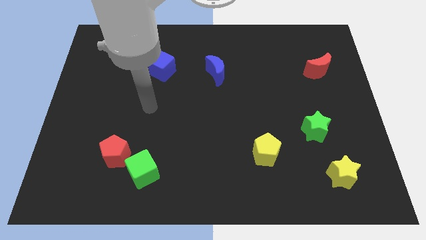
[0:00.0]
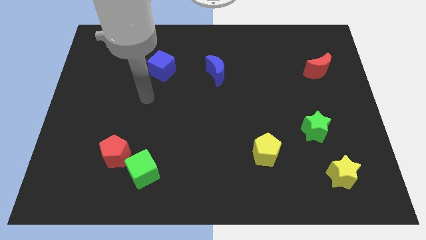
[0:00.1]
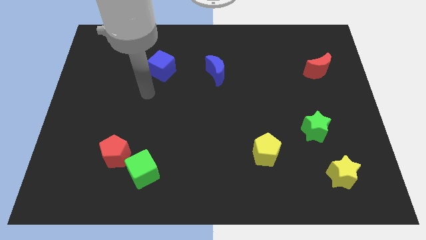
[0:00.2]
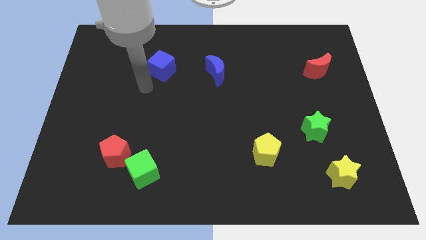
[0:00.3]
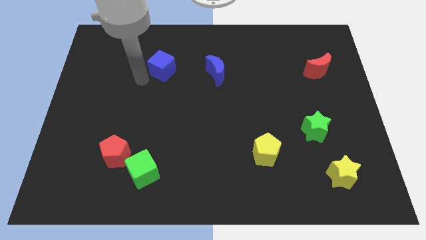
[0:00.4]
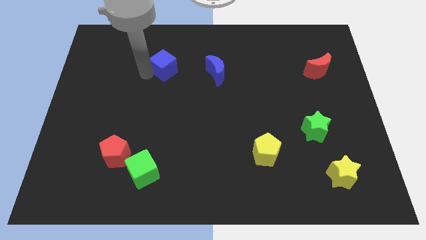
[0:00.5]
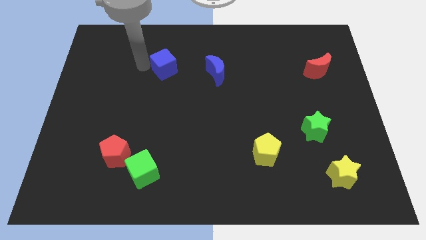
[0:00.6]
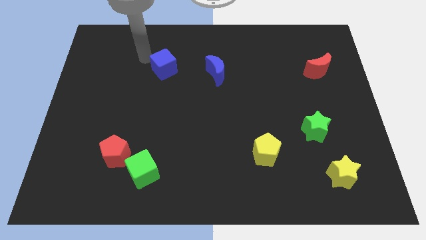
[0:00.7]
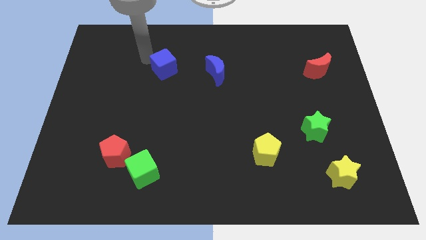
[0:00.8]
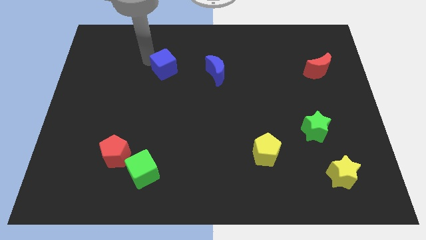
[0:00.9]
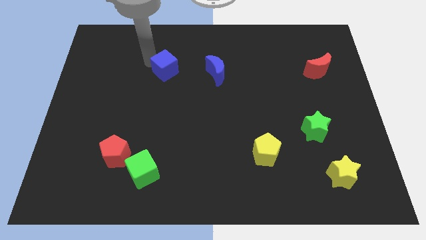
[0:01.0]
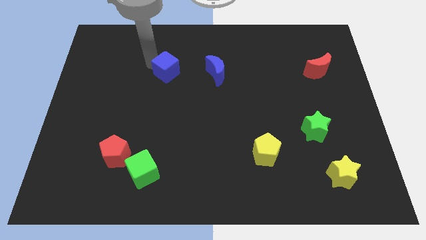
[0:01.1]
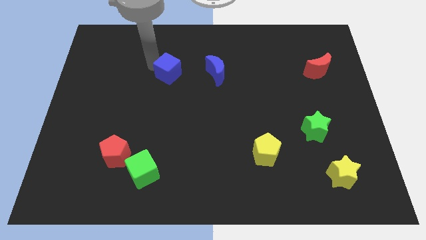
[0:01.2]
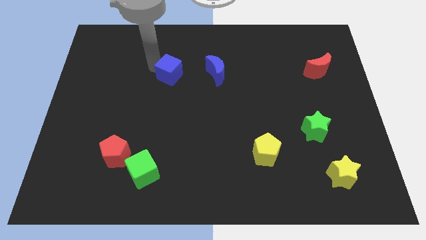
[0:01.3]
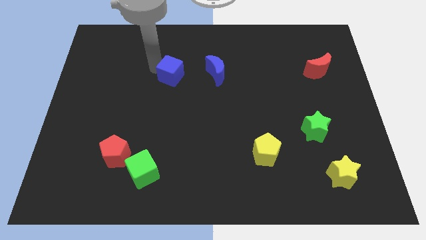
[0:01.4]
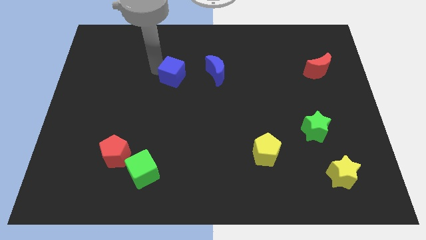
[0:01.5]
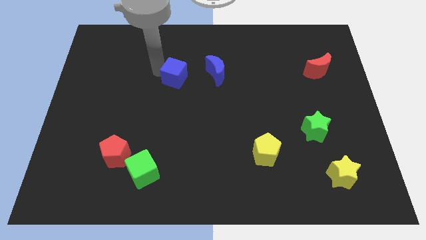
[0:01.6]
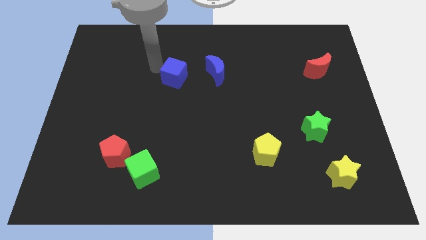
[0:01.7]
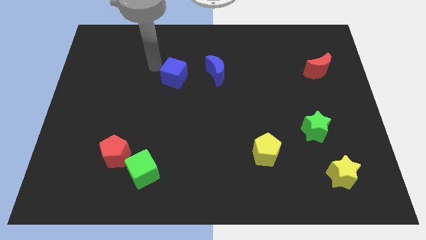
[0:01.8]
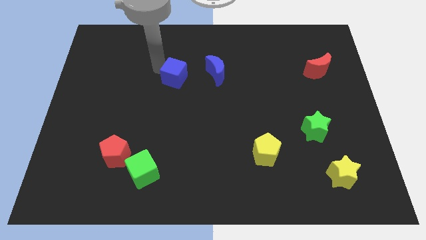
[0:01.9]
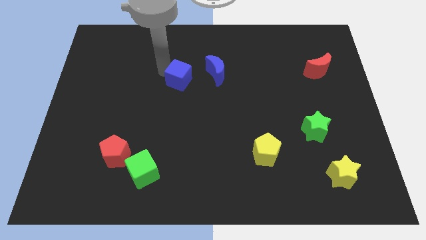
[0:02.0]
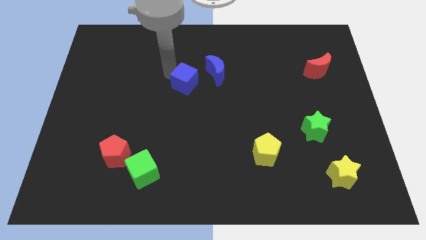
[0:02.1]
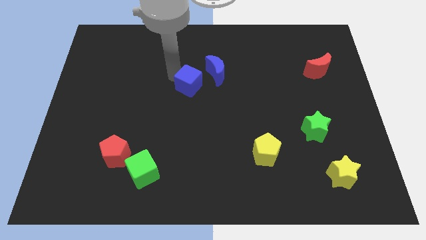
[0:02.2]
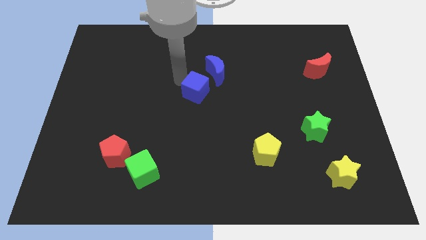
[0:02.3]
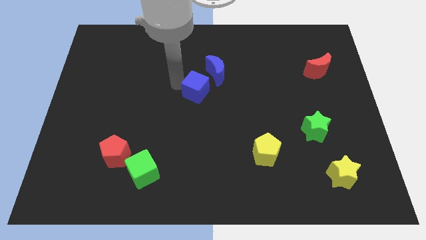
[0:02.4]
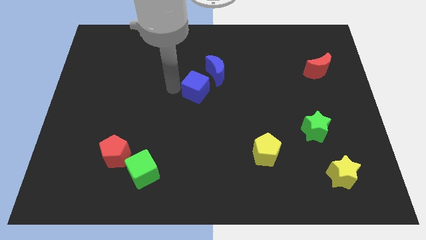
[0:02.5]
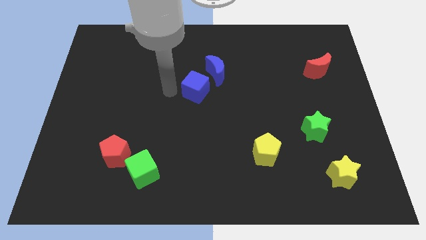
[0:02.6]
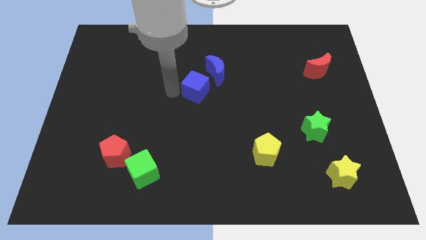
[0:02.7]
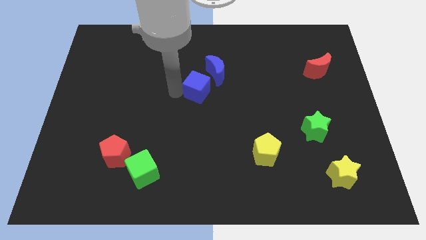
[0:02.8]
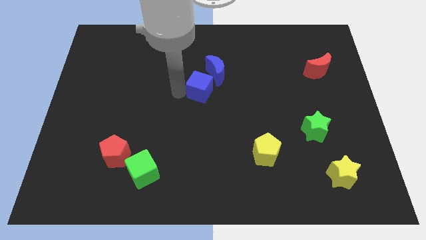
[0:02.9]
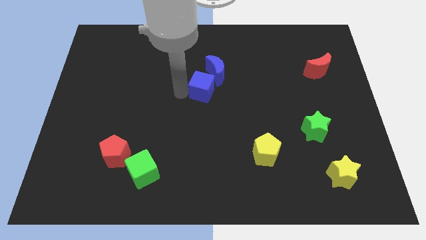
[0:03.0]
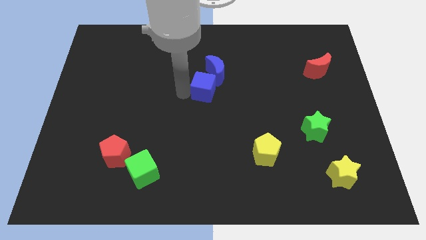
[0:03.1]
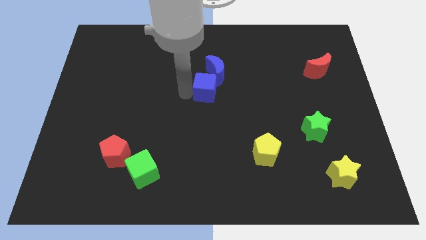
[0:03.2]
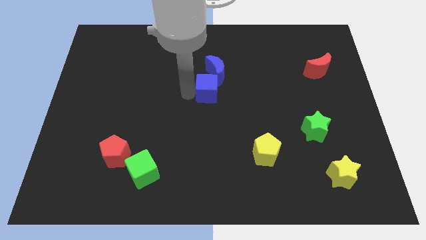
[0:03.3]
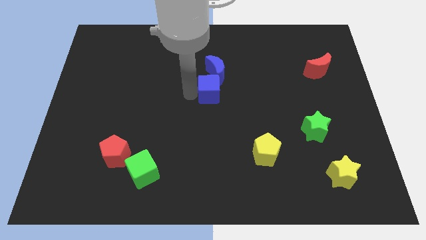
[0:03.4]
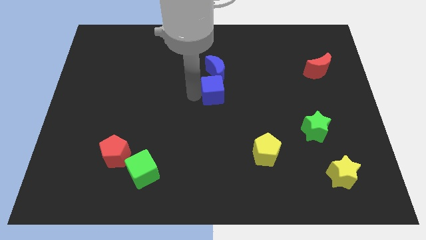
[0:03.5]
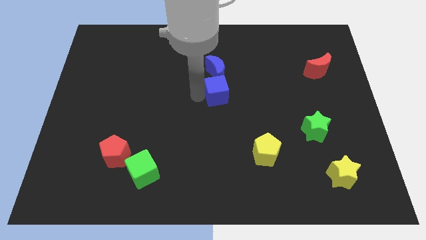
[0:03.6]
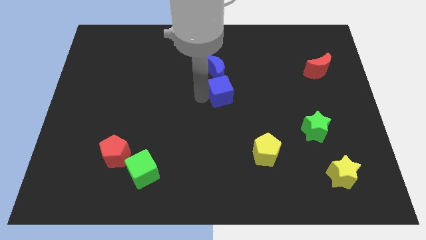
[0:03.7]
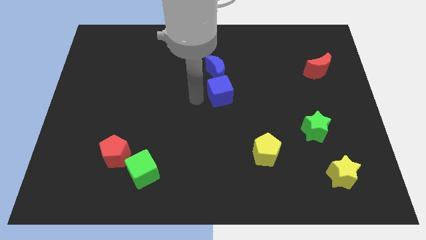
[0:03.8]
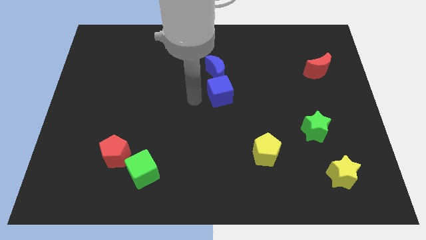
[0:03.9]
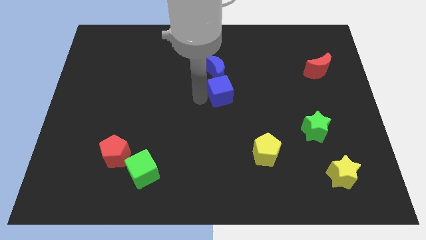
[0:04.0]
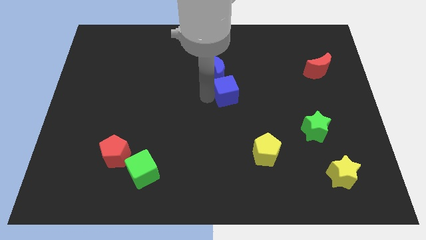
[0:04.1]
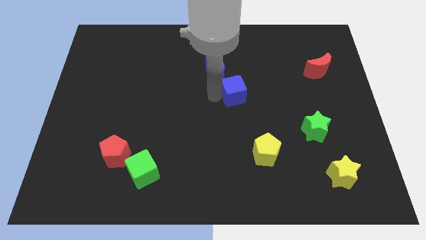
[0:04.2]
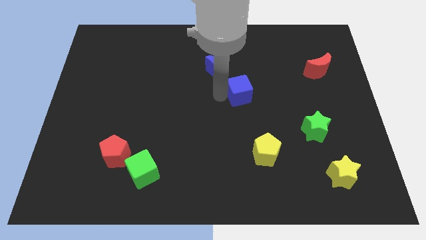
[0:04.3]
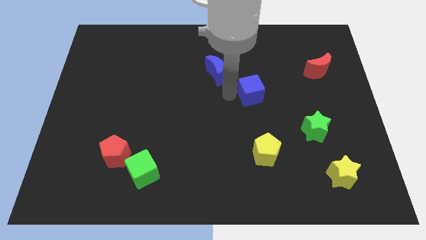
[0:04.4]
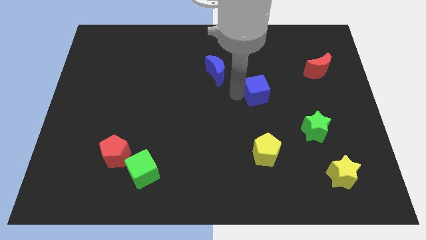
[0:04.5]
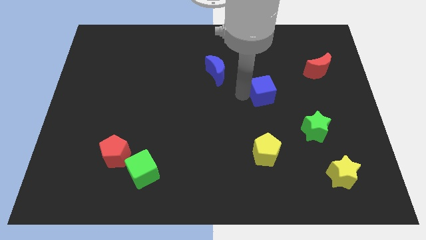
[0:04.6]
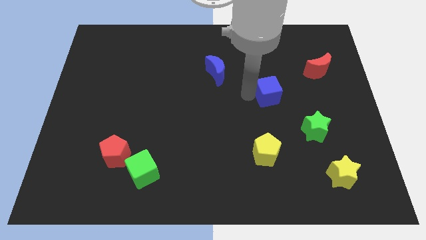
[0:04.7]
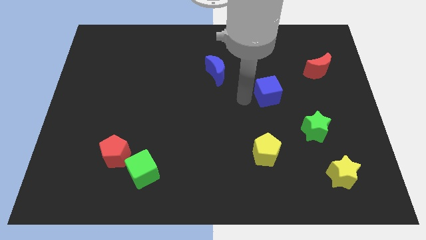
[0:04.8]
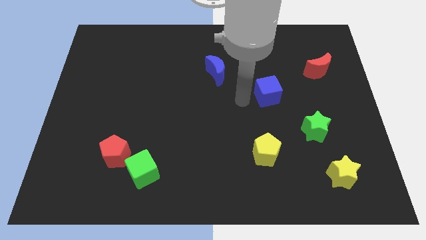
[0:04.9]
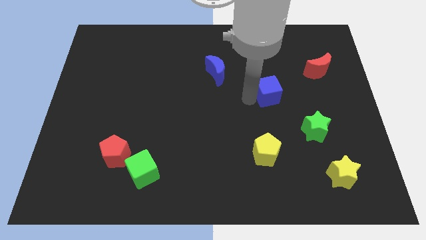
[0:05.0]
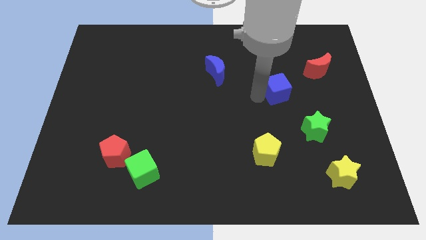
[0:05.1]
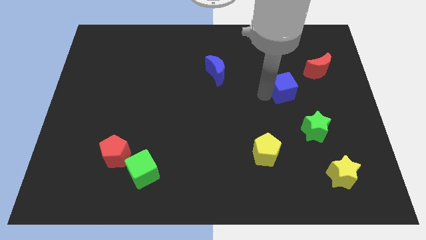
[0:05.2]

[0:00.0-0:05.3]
push the blue cube to the bottom left of the red moon

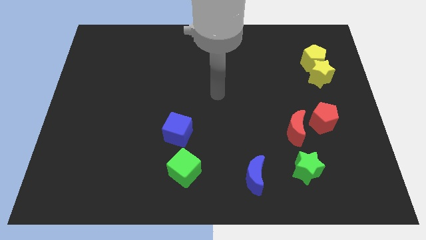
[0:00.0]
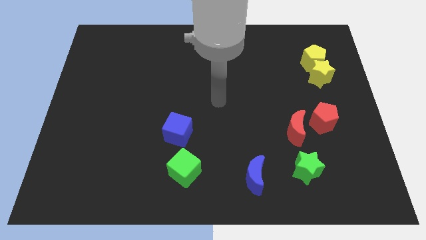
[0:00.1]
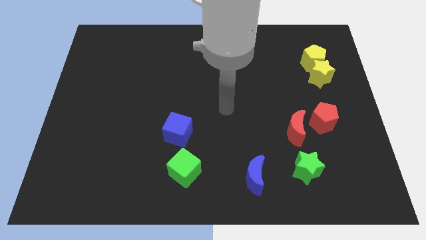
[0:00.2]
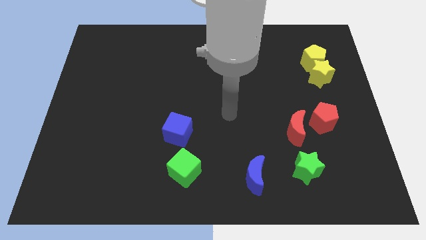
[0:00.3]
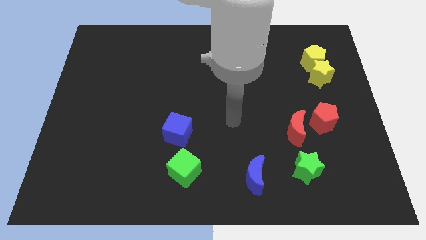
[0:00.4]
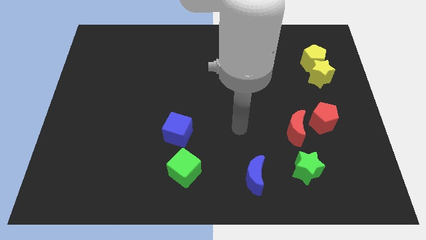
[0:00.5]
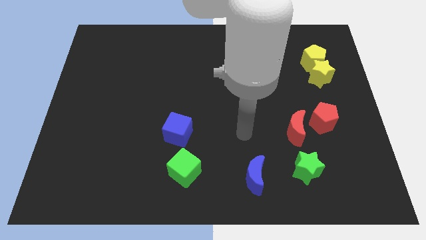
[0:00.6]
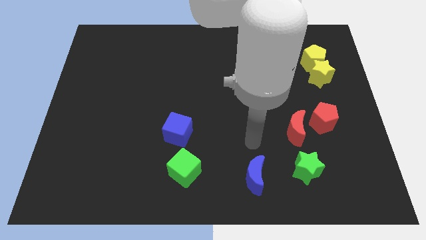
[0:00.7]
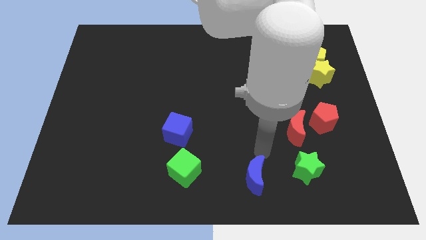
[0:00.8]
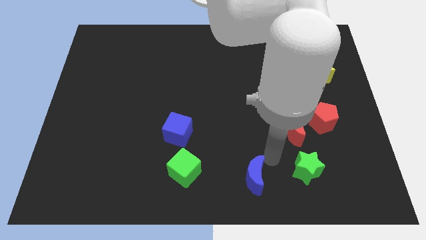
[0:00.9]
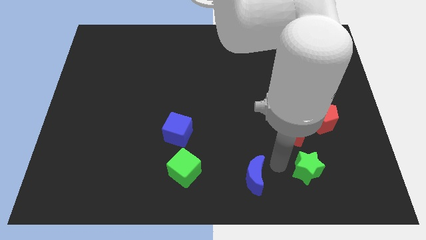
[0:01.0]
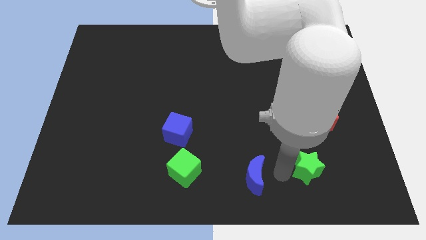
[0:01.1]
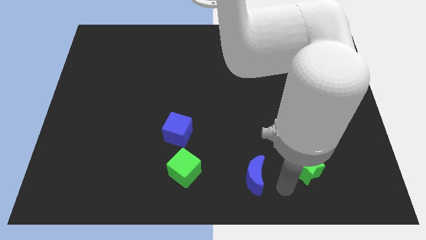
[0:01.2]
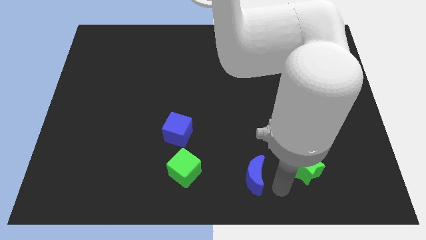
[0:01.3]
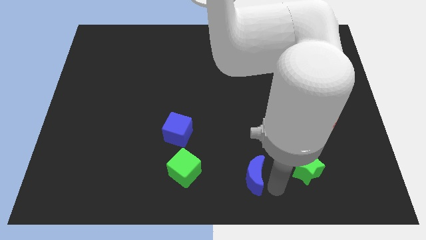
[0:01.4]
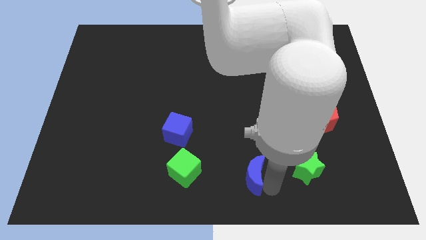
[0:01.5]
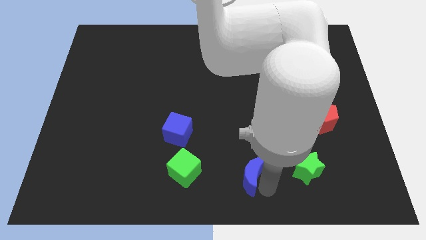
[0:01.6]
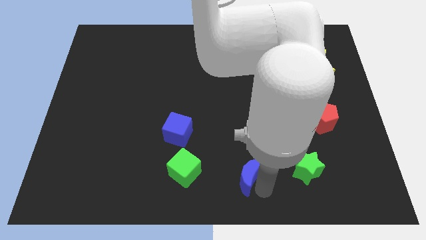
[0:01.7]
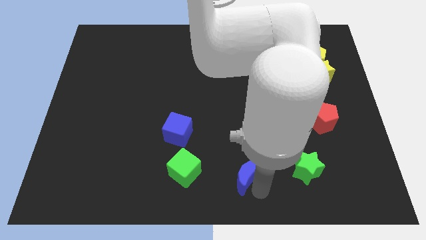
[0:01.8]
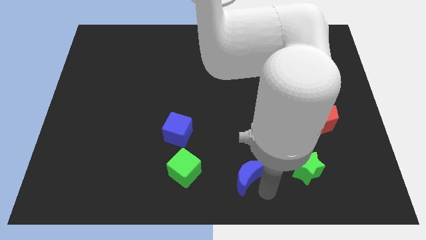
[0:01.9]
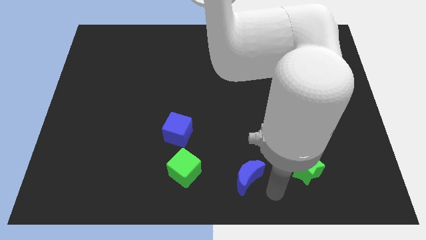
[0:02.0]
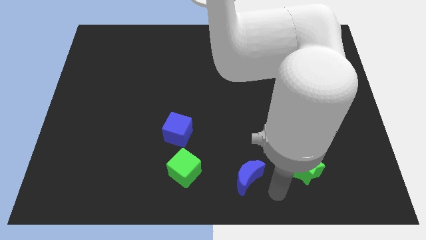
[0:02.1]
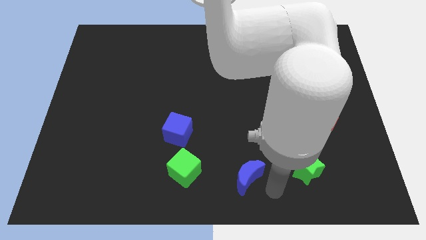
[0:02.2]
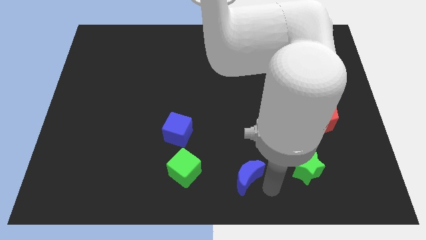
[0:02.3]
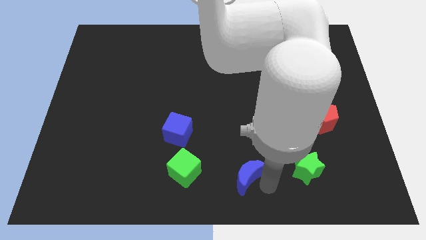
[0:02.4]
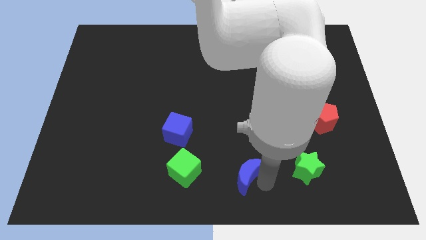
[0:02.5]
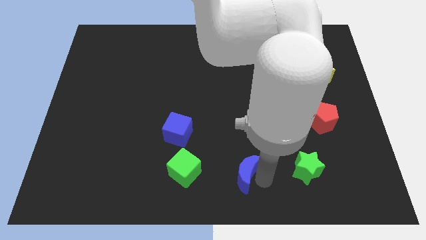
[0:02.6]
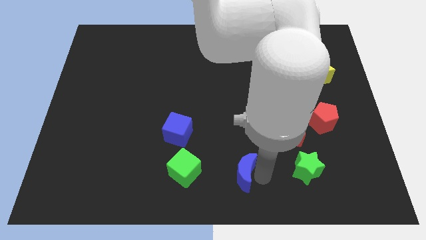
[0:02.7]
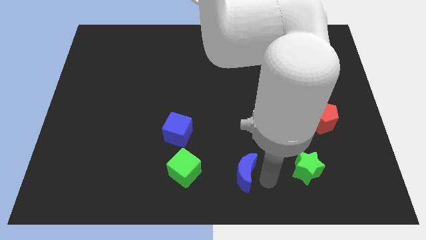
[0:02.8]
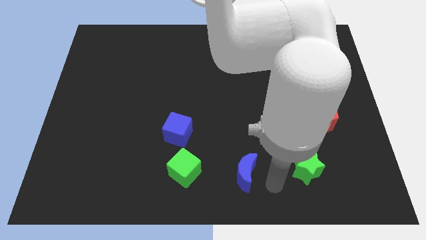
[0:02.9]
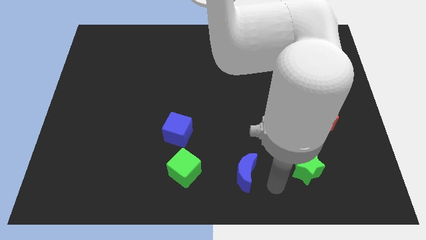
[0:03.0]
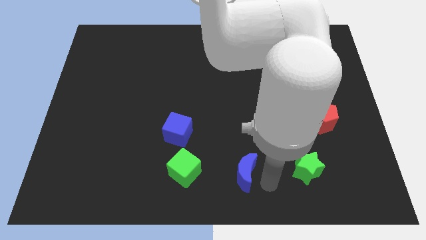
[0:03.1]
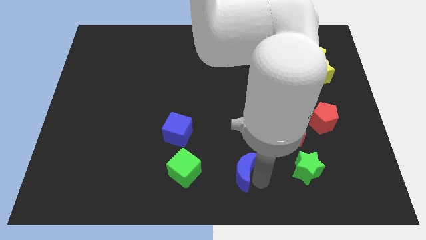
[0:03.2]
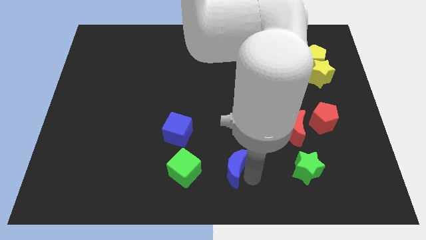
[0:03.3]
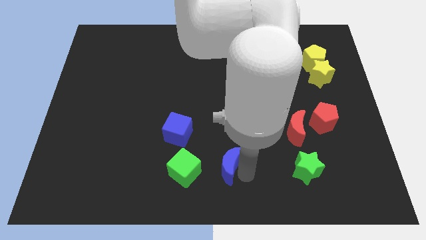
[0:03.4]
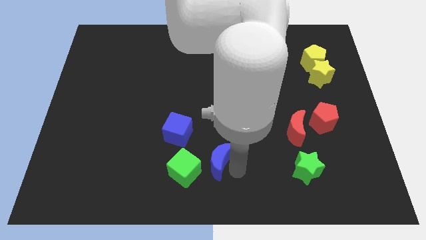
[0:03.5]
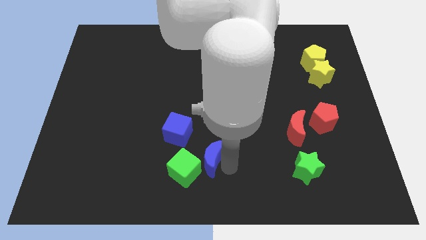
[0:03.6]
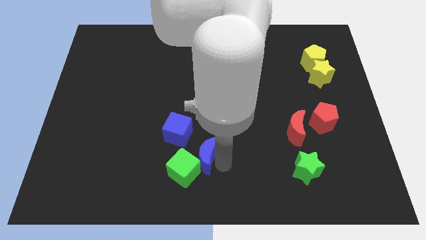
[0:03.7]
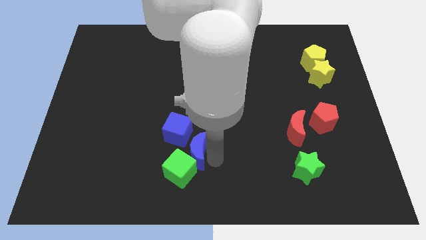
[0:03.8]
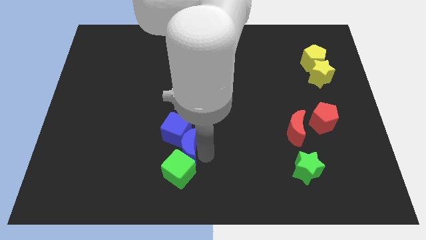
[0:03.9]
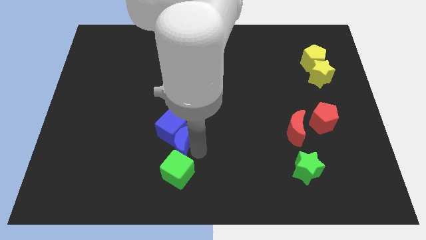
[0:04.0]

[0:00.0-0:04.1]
push the blue moon to the top left of the green cube
